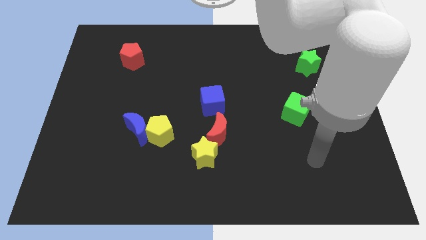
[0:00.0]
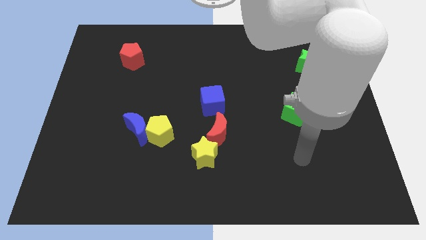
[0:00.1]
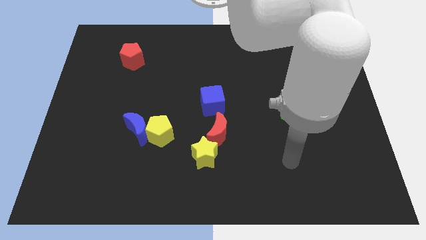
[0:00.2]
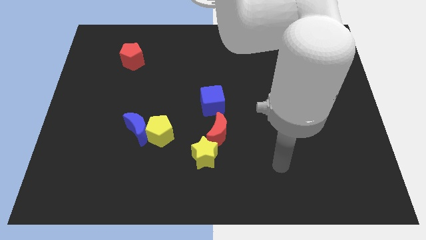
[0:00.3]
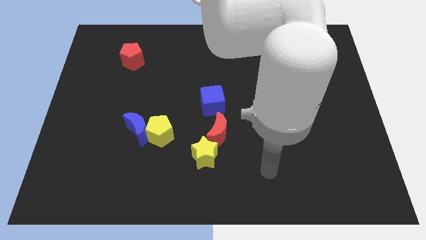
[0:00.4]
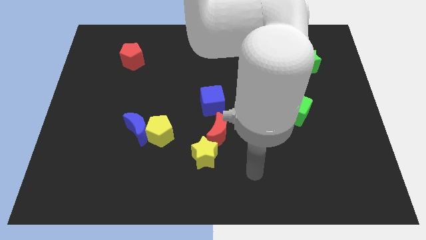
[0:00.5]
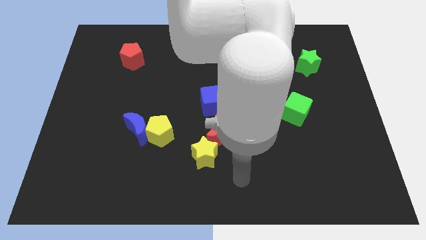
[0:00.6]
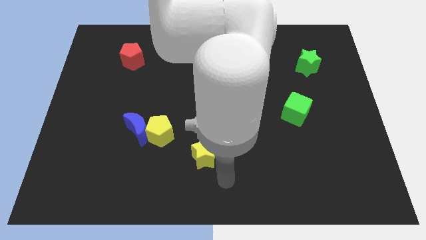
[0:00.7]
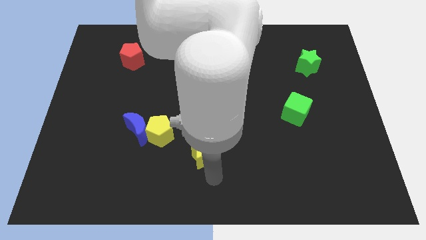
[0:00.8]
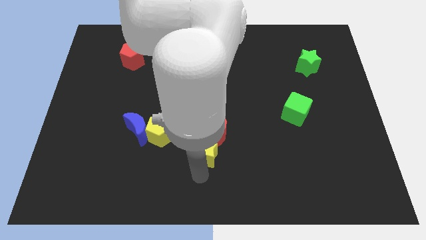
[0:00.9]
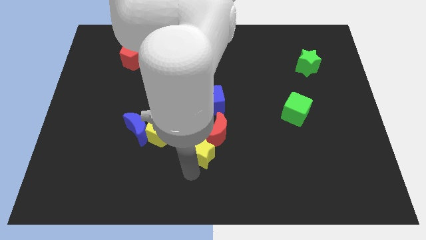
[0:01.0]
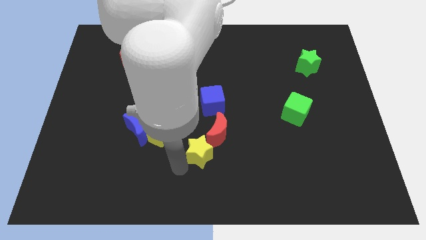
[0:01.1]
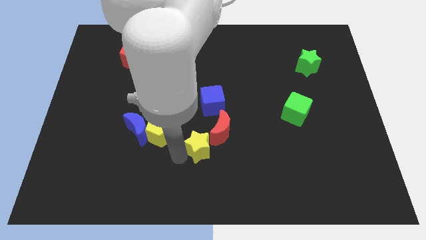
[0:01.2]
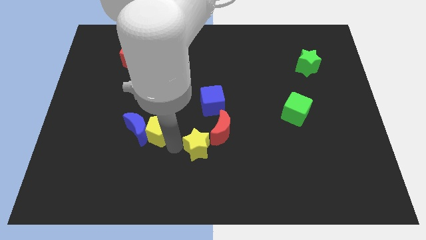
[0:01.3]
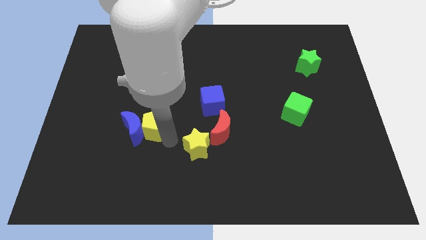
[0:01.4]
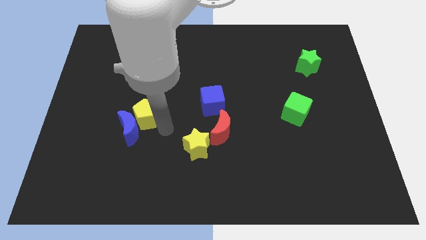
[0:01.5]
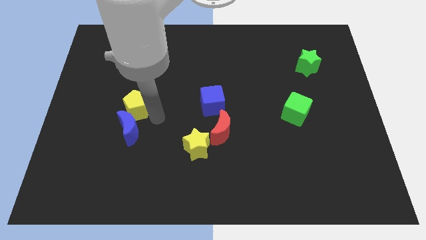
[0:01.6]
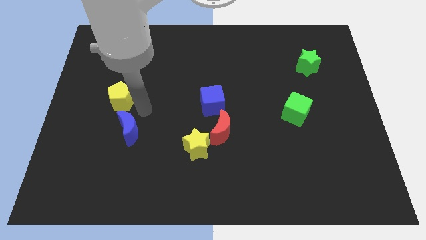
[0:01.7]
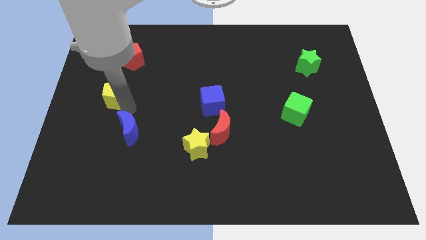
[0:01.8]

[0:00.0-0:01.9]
separate the blue moon from the yellow pentagon

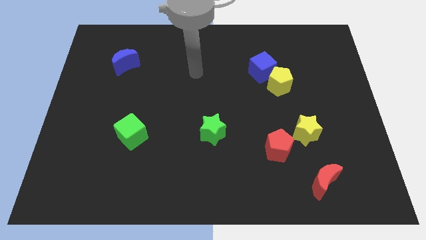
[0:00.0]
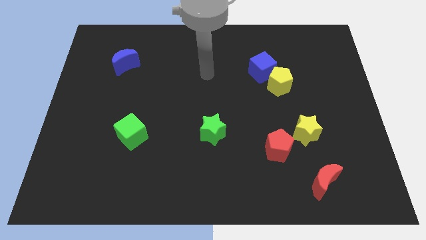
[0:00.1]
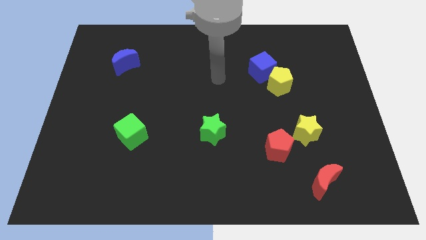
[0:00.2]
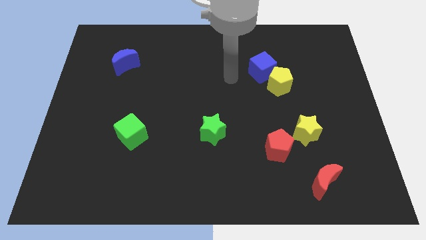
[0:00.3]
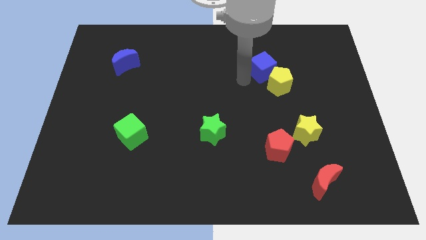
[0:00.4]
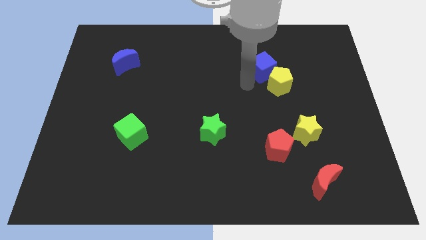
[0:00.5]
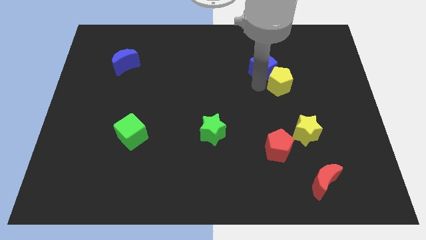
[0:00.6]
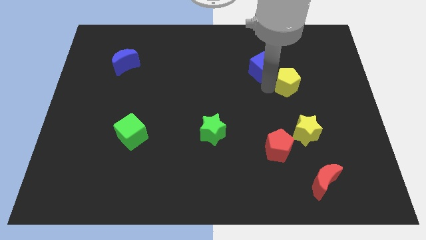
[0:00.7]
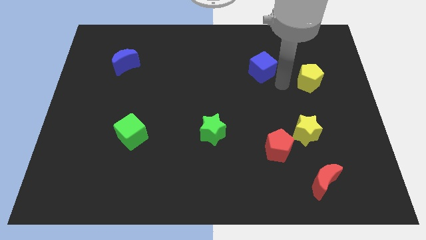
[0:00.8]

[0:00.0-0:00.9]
pull the blue cube apart from the yellow pentagon

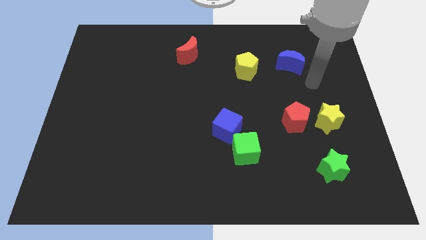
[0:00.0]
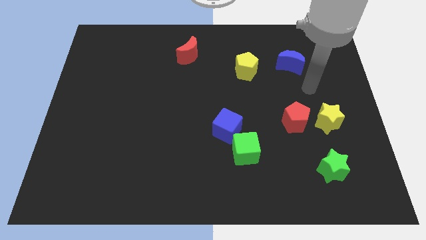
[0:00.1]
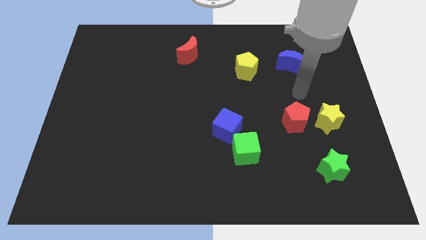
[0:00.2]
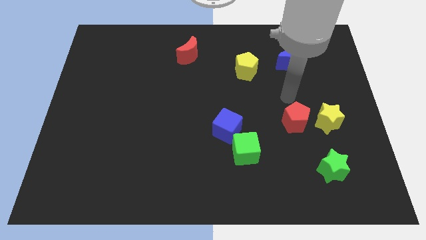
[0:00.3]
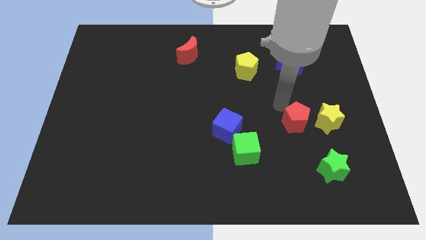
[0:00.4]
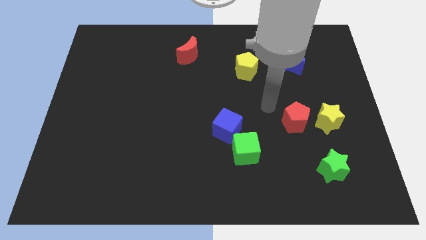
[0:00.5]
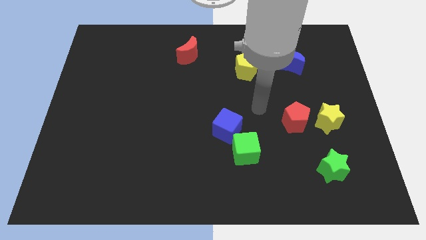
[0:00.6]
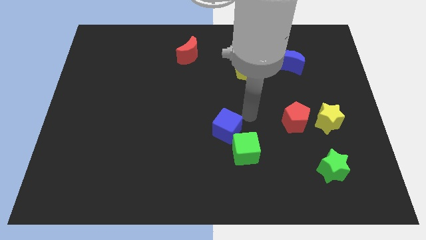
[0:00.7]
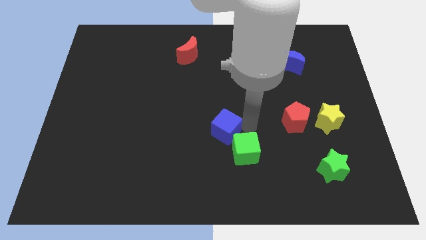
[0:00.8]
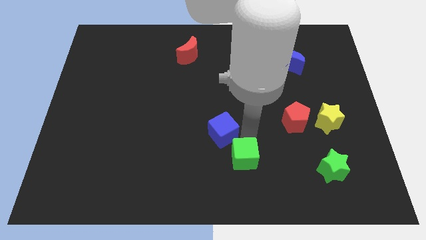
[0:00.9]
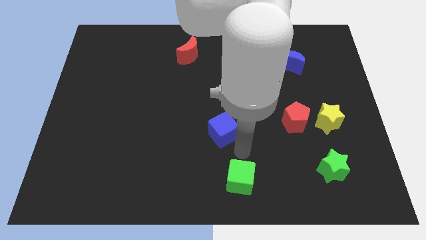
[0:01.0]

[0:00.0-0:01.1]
pull the blue cube apart from the green cube

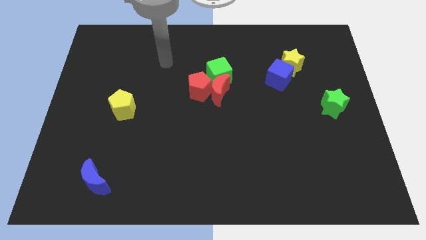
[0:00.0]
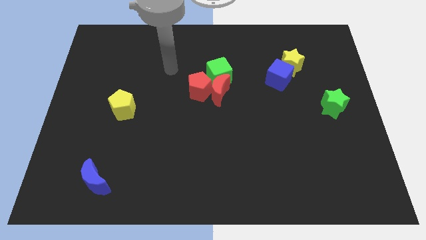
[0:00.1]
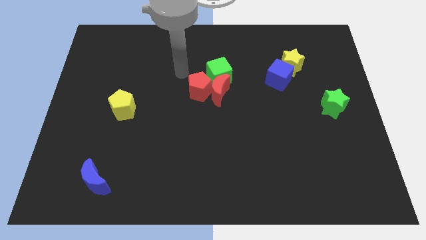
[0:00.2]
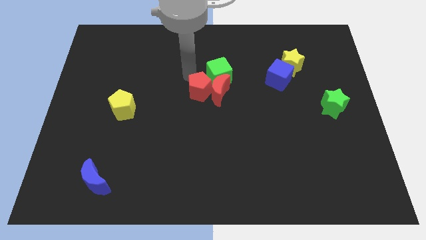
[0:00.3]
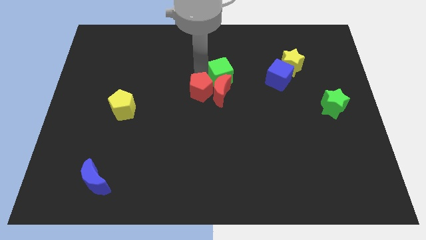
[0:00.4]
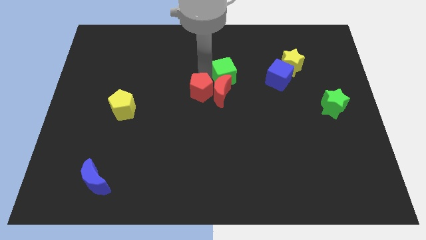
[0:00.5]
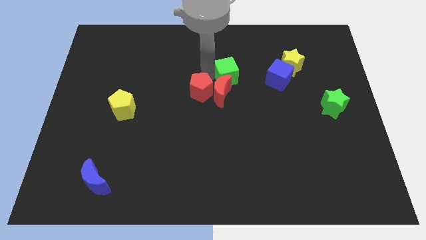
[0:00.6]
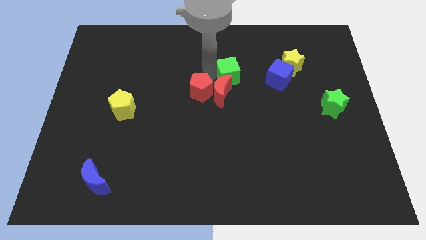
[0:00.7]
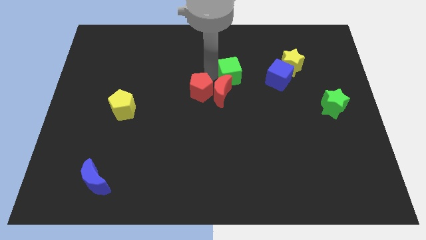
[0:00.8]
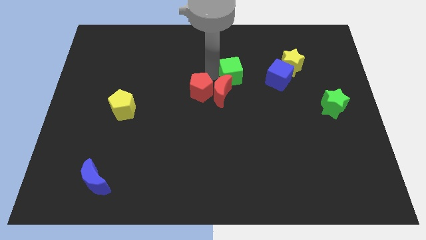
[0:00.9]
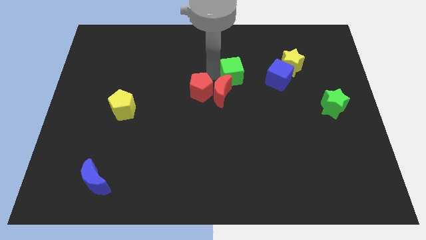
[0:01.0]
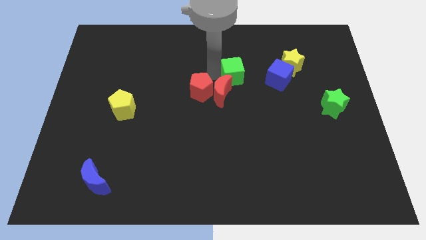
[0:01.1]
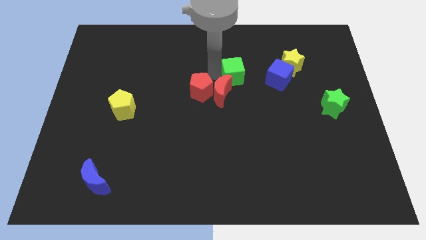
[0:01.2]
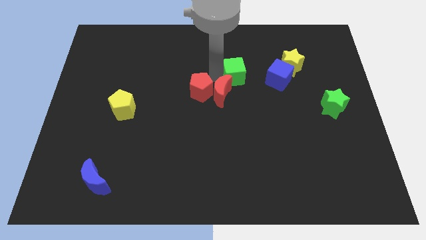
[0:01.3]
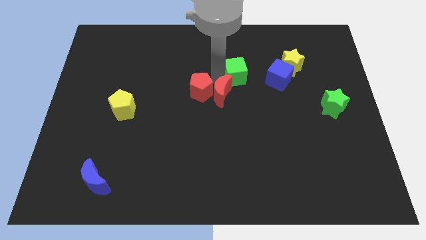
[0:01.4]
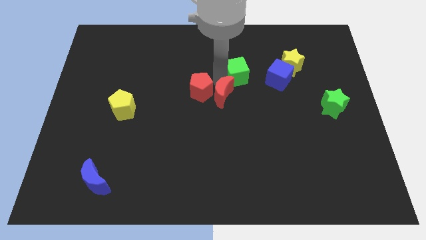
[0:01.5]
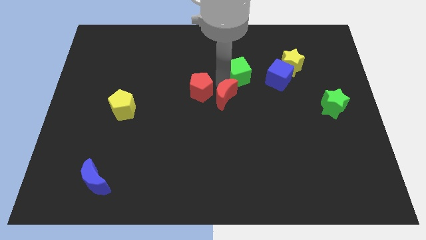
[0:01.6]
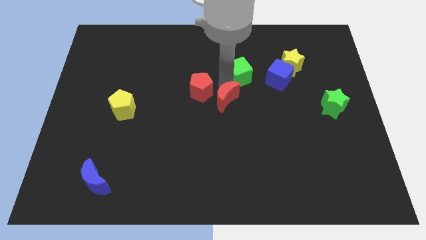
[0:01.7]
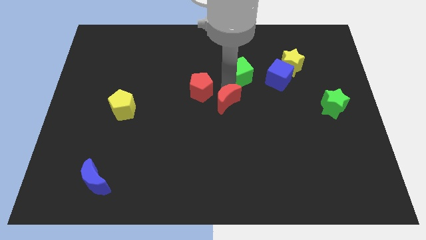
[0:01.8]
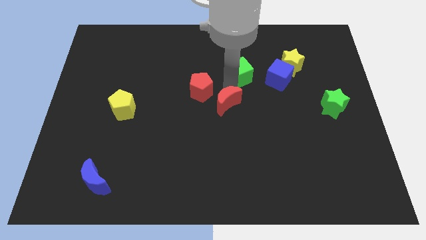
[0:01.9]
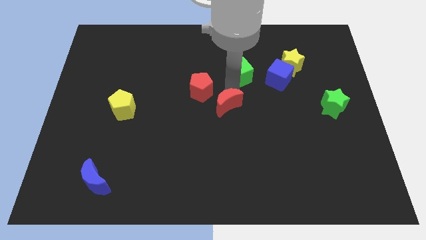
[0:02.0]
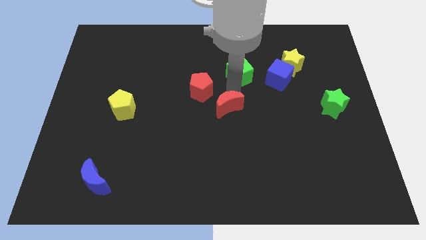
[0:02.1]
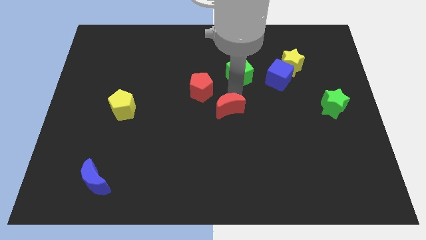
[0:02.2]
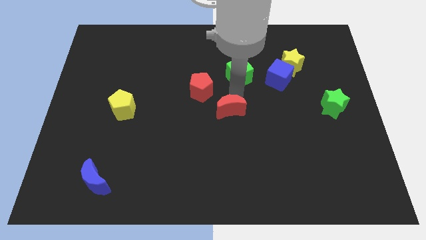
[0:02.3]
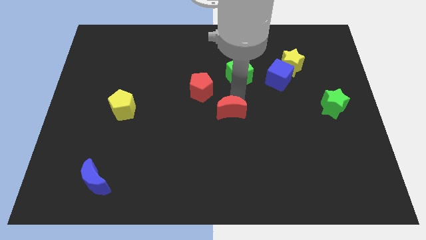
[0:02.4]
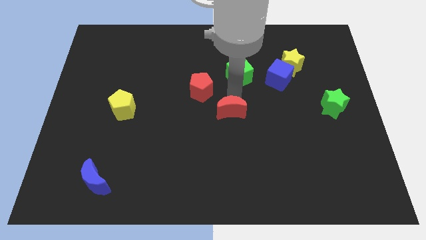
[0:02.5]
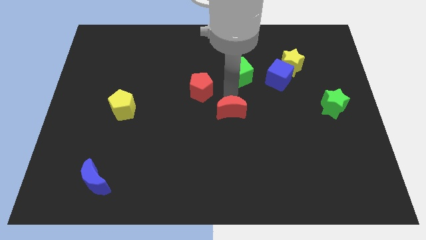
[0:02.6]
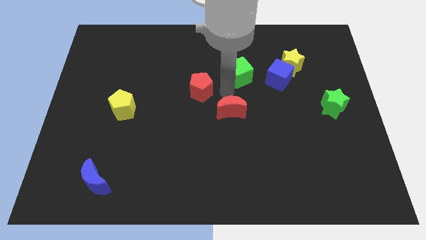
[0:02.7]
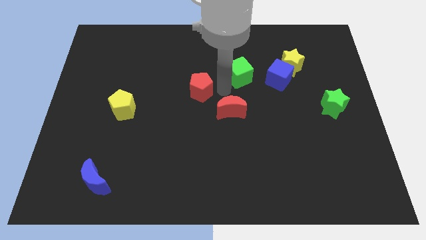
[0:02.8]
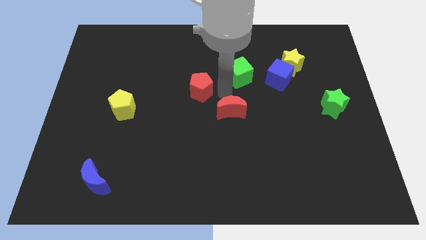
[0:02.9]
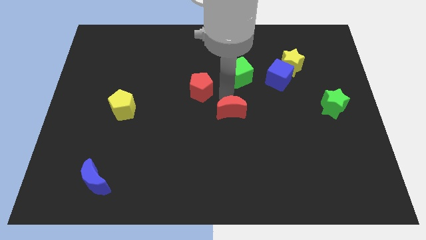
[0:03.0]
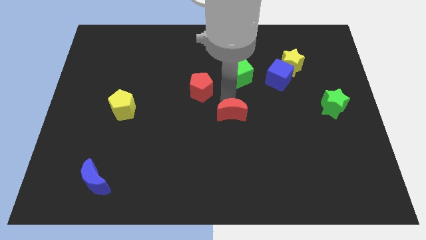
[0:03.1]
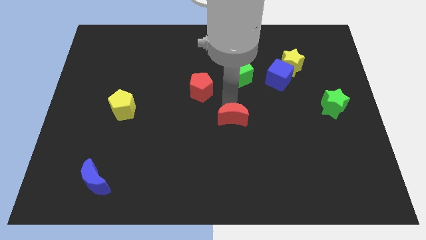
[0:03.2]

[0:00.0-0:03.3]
separate the red moon from the red pentagon and green cube

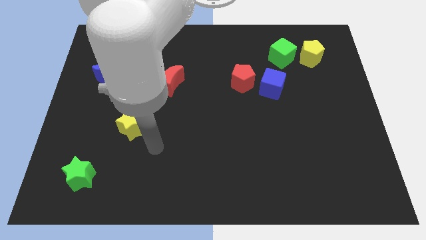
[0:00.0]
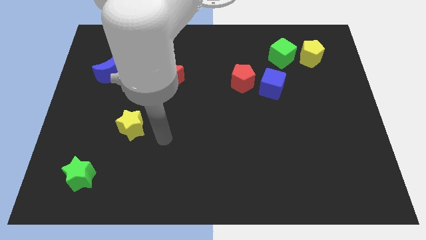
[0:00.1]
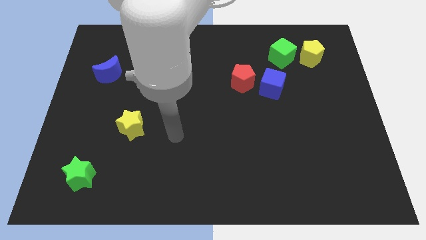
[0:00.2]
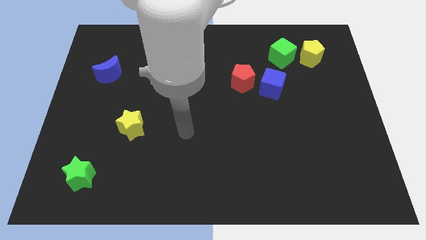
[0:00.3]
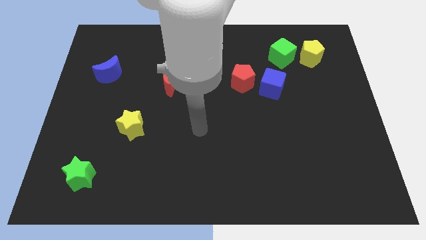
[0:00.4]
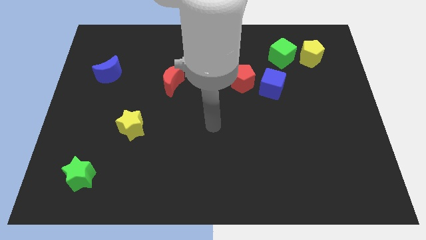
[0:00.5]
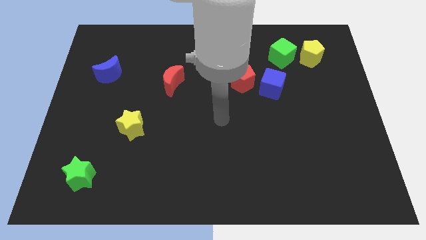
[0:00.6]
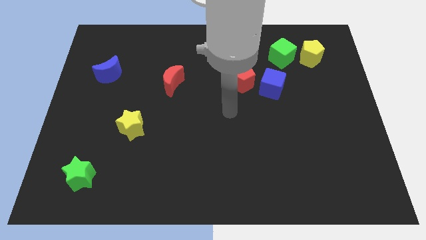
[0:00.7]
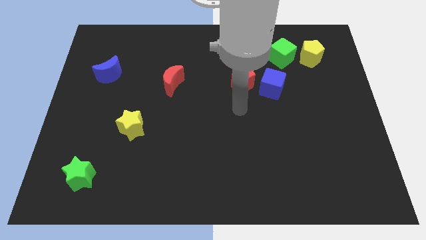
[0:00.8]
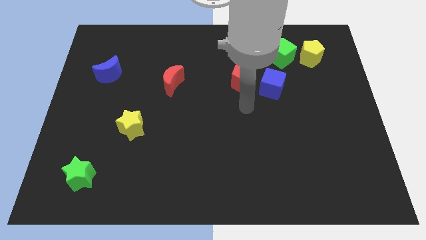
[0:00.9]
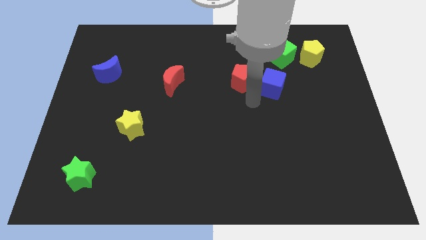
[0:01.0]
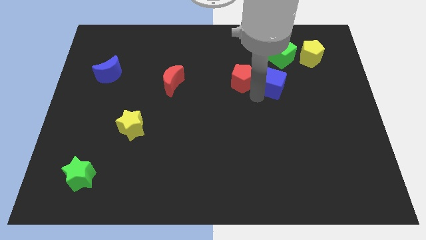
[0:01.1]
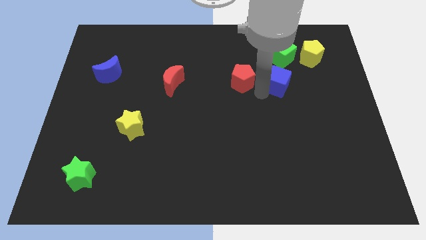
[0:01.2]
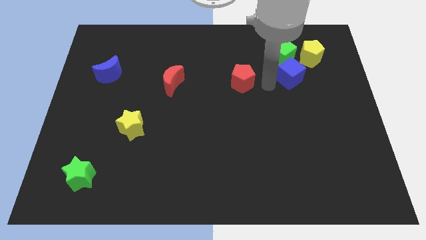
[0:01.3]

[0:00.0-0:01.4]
pull the red pentagon apart from the blue cube

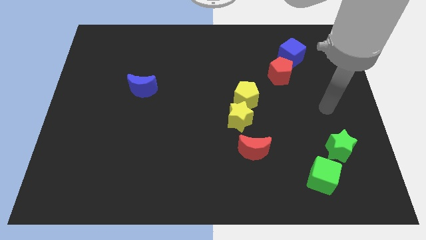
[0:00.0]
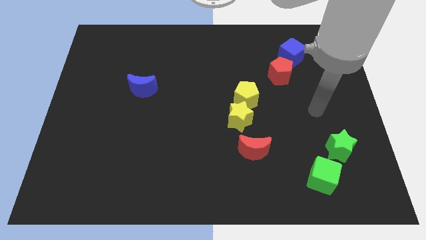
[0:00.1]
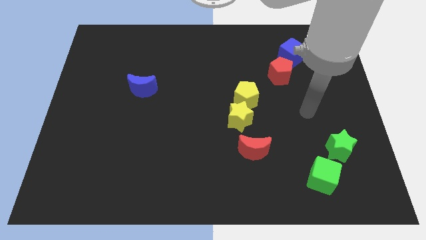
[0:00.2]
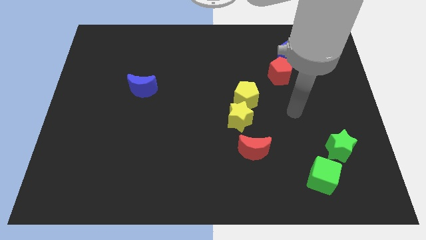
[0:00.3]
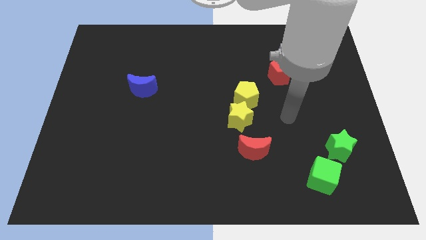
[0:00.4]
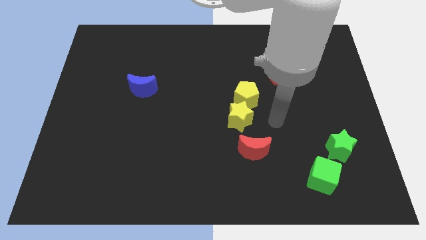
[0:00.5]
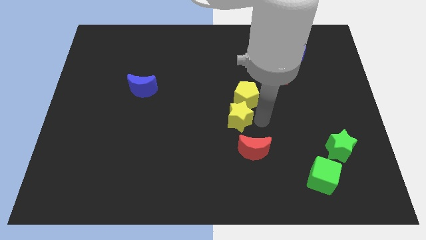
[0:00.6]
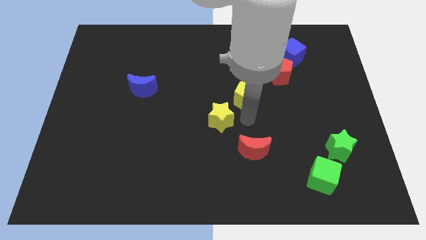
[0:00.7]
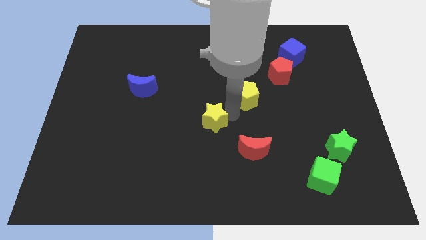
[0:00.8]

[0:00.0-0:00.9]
separate the yellow pentagon from the yellow star
